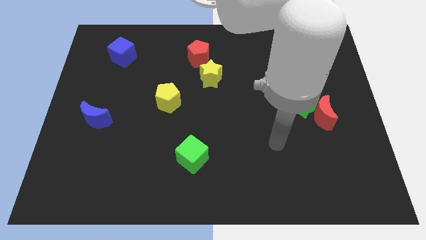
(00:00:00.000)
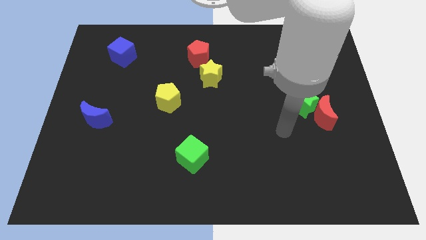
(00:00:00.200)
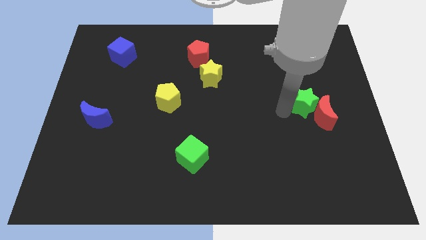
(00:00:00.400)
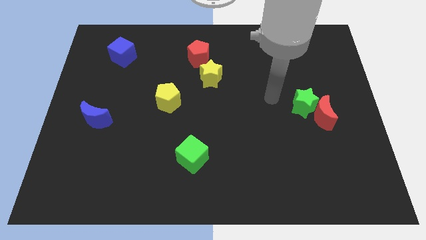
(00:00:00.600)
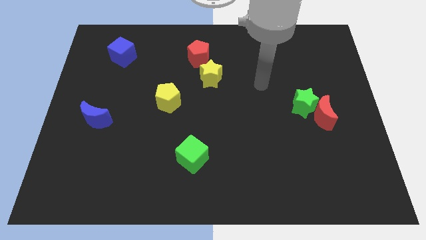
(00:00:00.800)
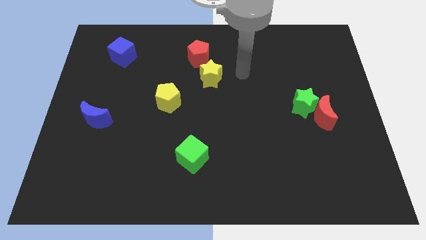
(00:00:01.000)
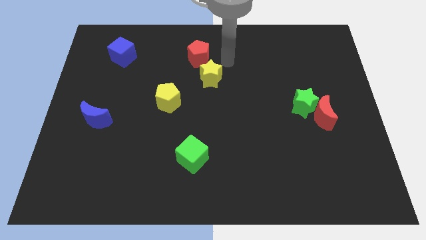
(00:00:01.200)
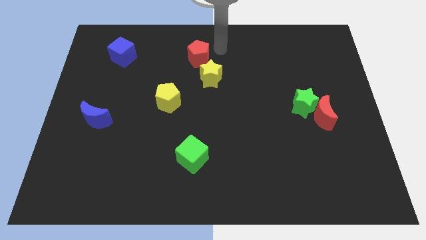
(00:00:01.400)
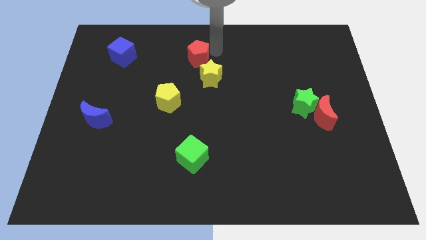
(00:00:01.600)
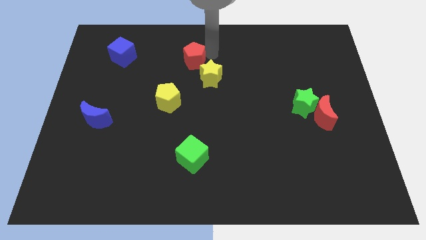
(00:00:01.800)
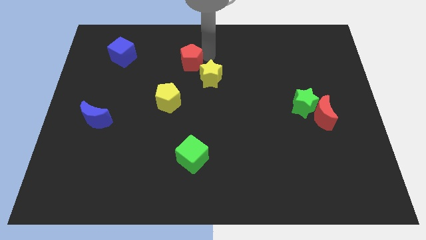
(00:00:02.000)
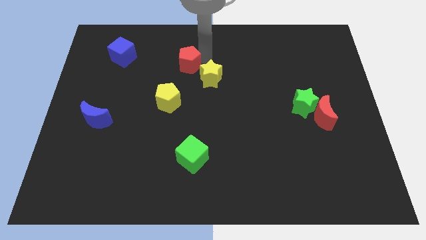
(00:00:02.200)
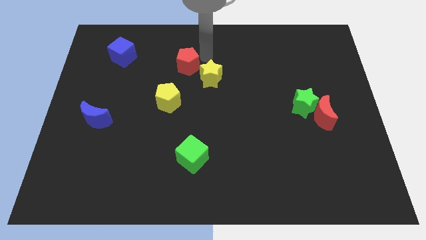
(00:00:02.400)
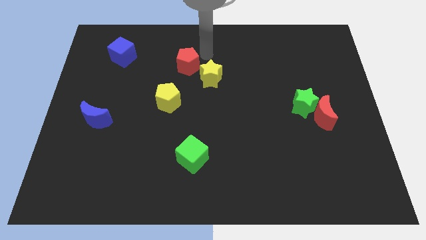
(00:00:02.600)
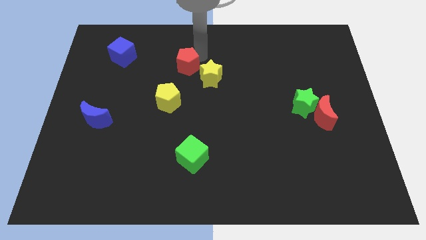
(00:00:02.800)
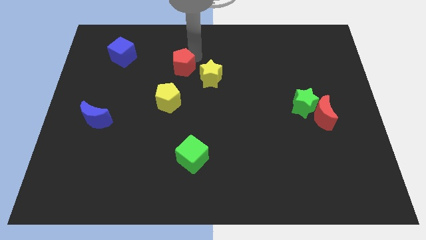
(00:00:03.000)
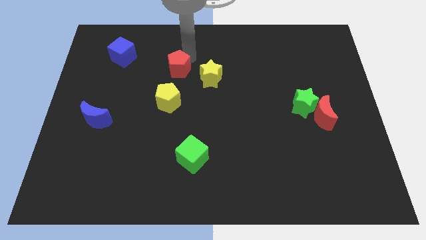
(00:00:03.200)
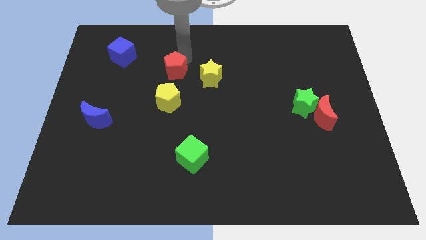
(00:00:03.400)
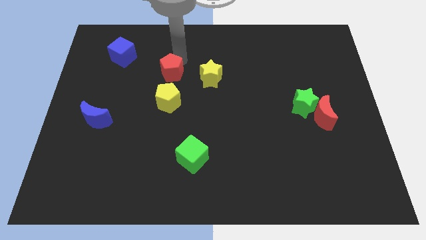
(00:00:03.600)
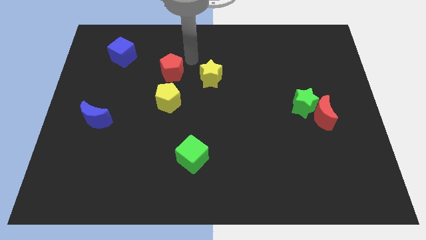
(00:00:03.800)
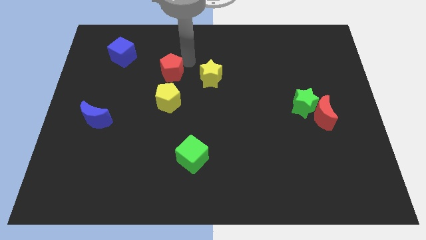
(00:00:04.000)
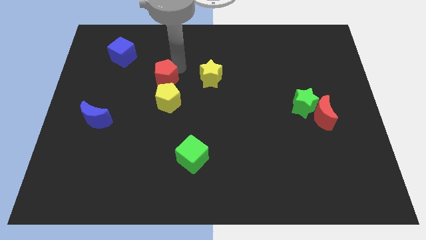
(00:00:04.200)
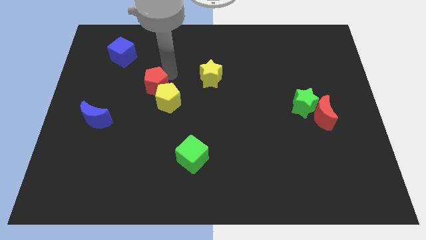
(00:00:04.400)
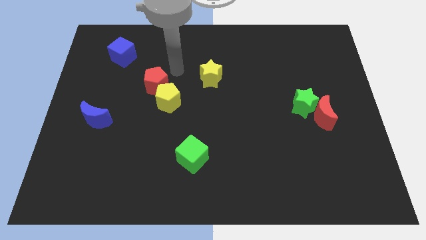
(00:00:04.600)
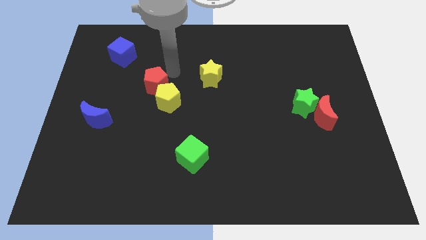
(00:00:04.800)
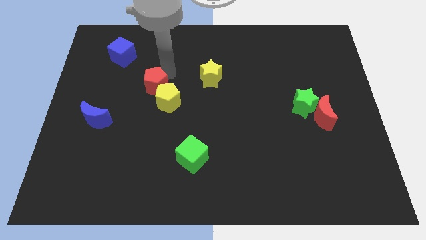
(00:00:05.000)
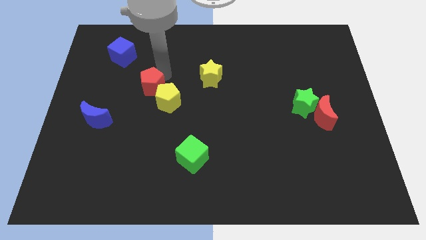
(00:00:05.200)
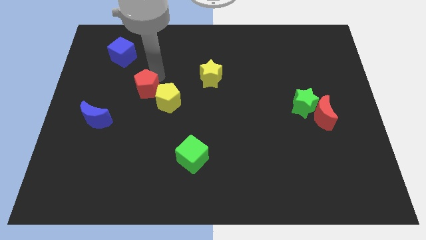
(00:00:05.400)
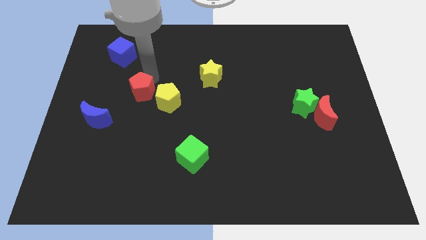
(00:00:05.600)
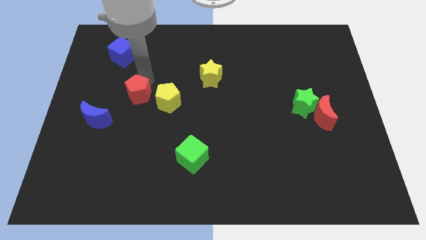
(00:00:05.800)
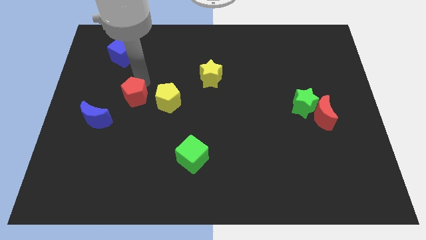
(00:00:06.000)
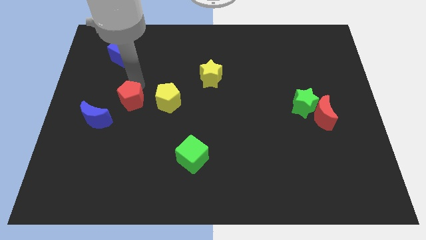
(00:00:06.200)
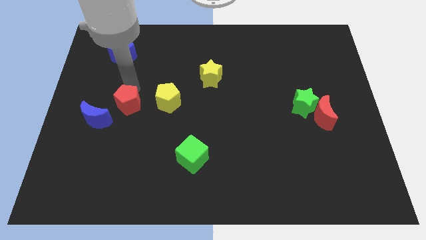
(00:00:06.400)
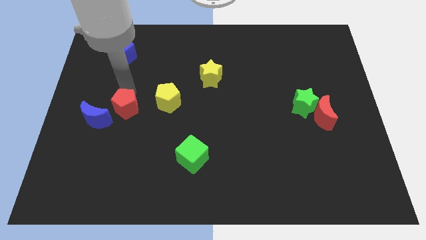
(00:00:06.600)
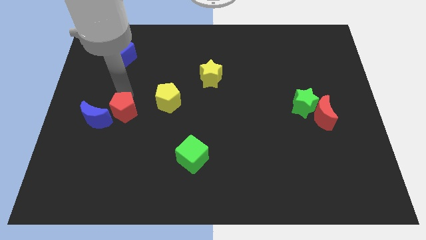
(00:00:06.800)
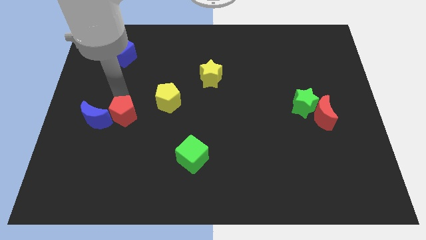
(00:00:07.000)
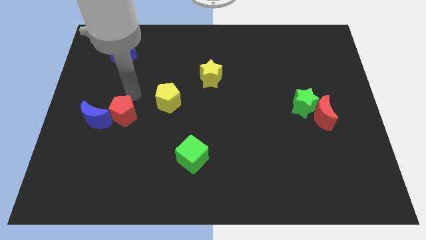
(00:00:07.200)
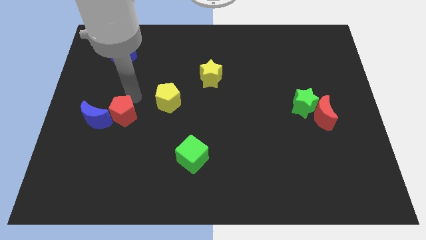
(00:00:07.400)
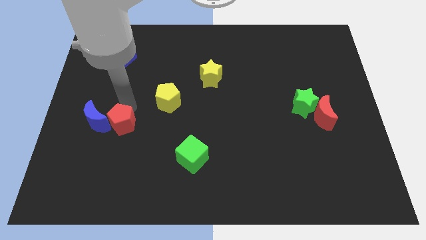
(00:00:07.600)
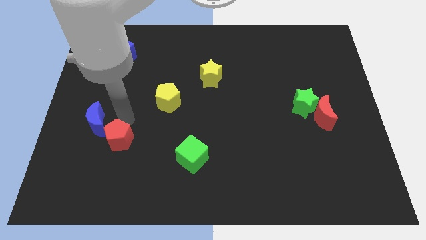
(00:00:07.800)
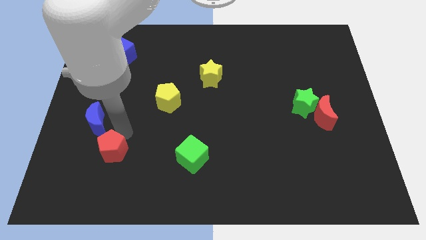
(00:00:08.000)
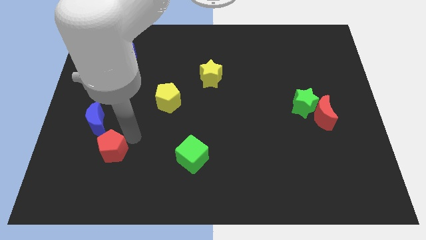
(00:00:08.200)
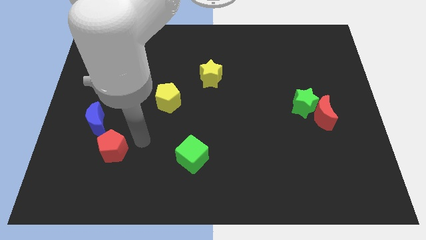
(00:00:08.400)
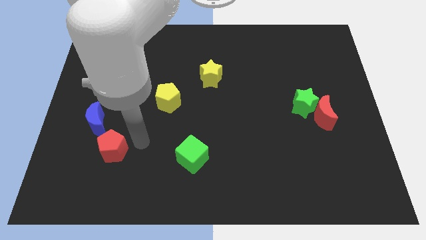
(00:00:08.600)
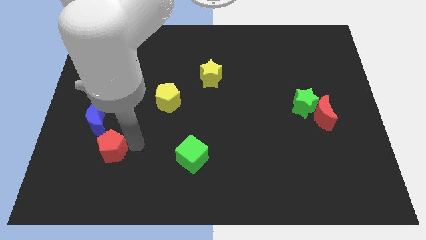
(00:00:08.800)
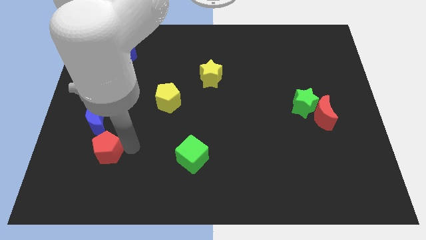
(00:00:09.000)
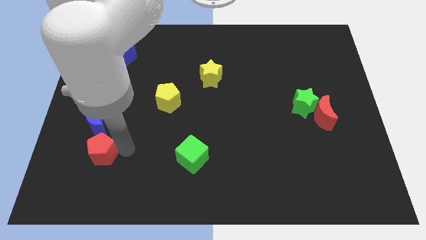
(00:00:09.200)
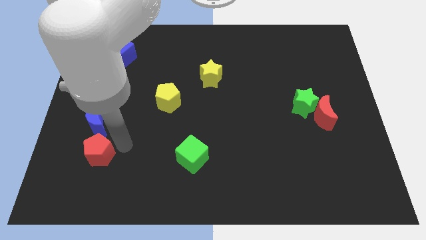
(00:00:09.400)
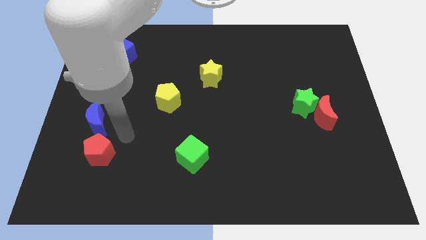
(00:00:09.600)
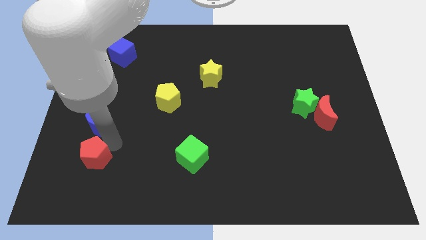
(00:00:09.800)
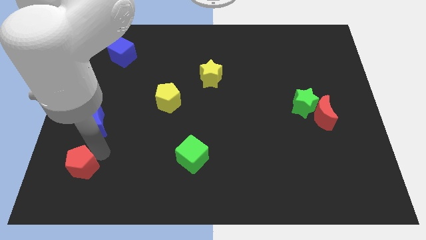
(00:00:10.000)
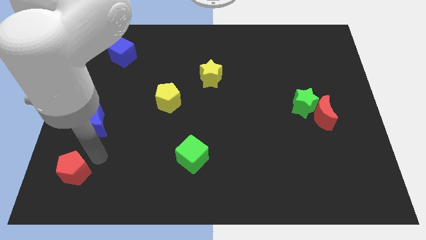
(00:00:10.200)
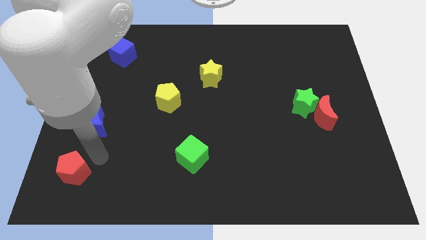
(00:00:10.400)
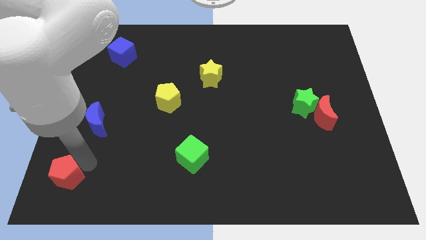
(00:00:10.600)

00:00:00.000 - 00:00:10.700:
push the red pentagon to the lower left corner
